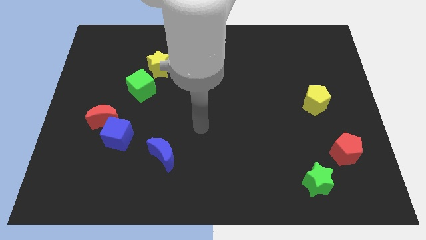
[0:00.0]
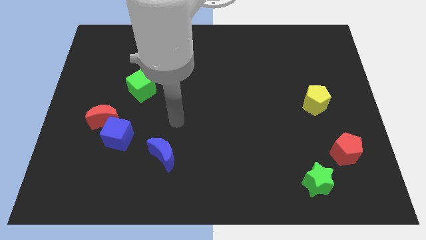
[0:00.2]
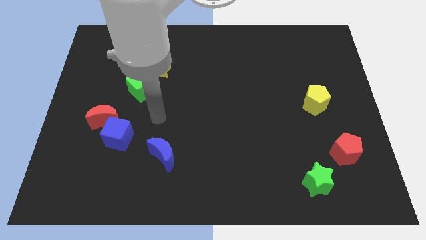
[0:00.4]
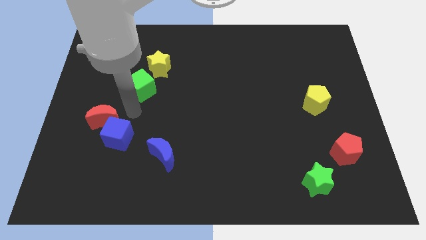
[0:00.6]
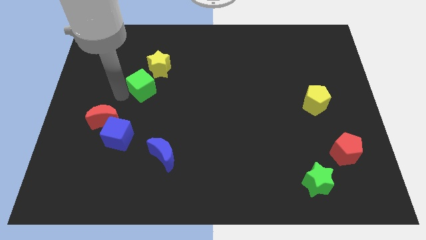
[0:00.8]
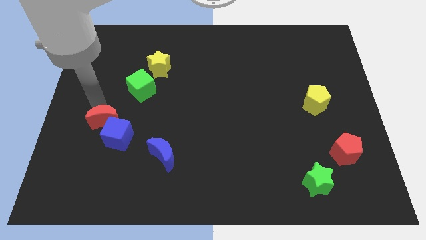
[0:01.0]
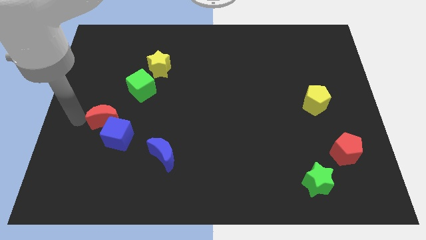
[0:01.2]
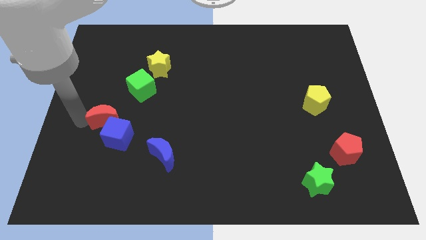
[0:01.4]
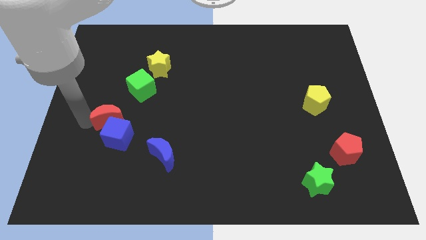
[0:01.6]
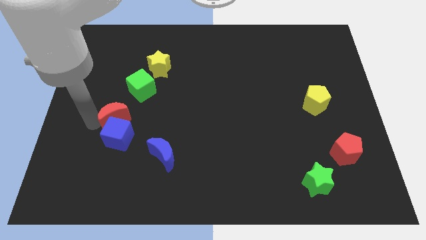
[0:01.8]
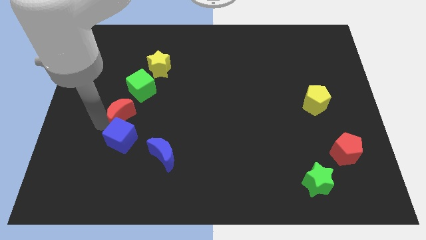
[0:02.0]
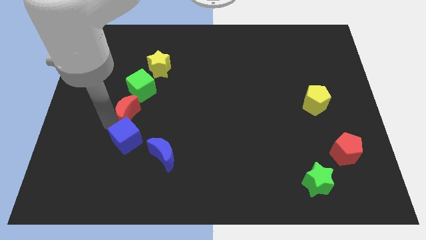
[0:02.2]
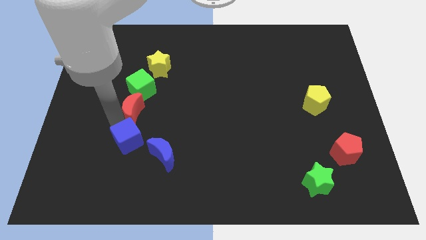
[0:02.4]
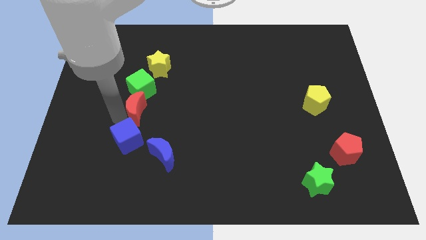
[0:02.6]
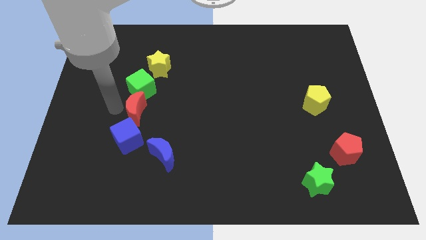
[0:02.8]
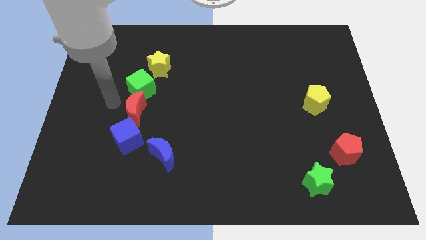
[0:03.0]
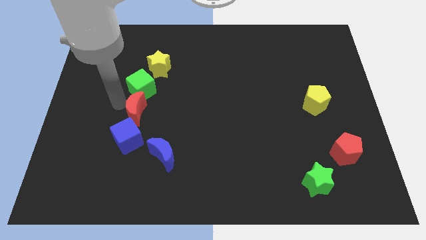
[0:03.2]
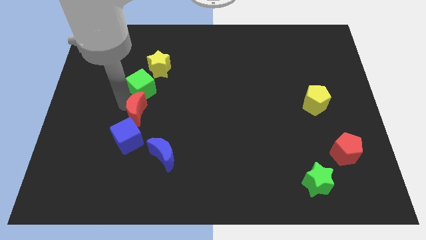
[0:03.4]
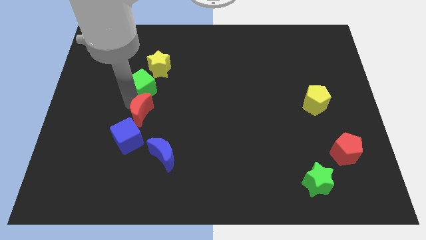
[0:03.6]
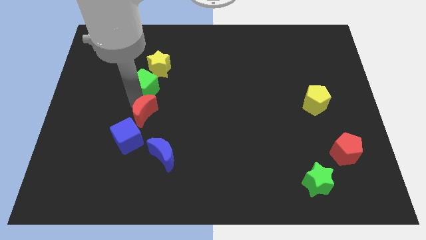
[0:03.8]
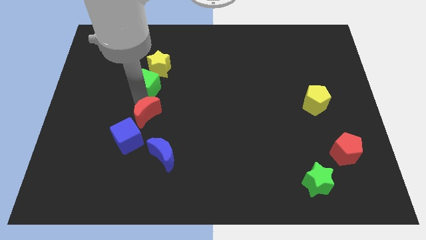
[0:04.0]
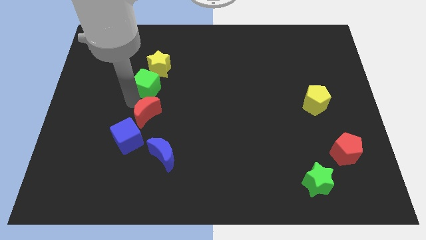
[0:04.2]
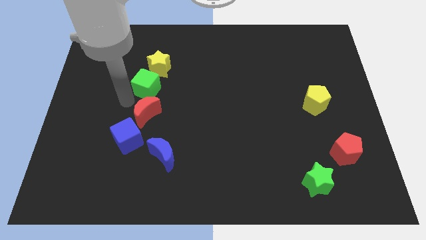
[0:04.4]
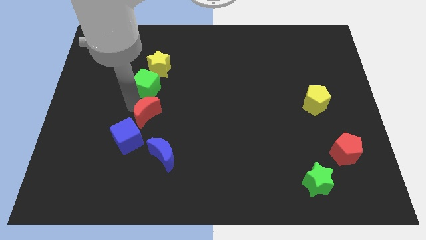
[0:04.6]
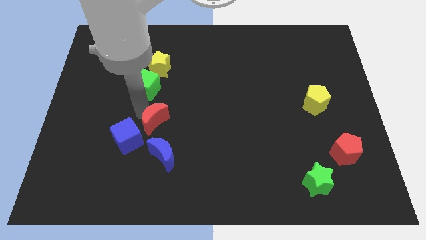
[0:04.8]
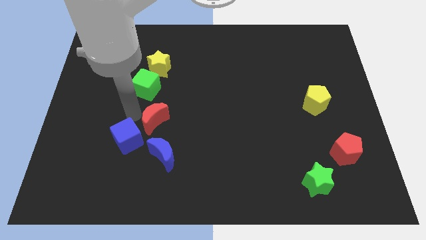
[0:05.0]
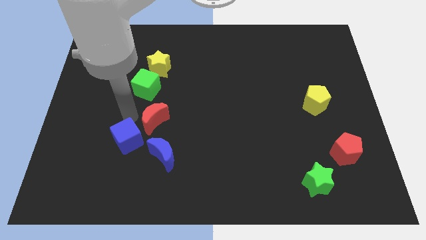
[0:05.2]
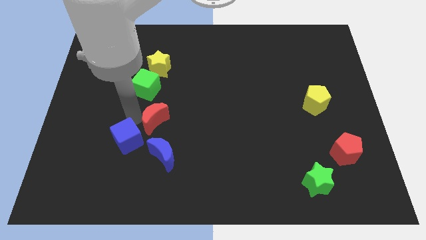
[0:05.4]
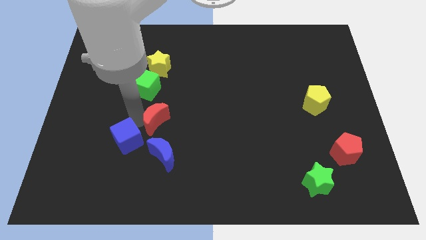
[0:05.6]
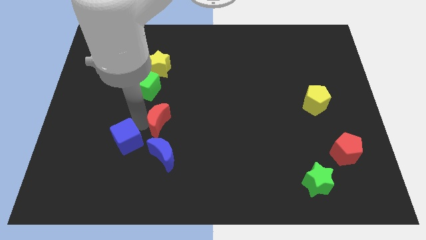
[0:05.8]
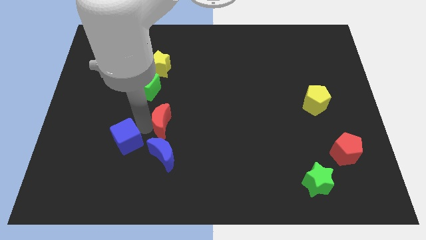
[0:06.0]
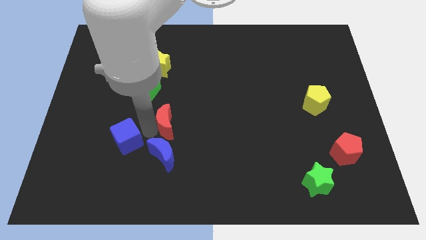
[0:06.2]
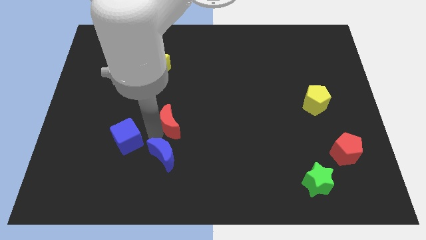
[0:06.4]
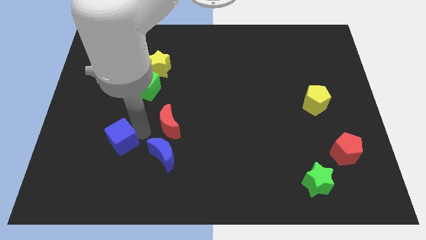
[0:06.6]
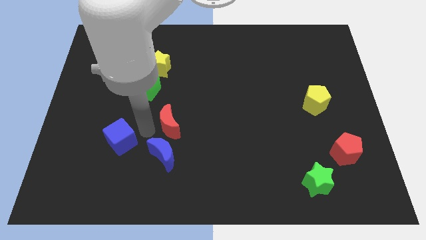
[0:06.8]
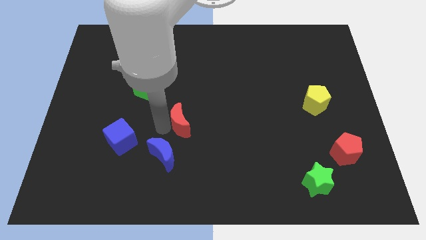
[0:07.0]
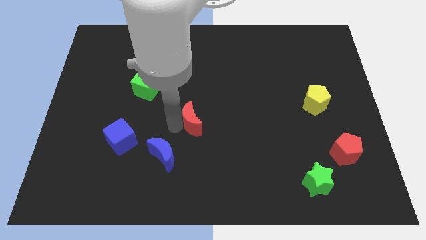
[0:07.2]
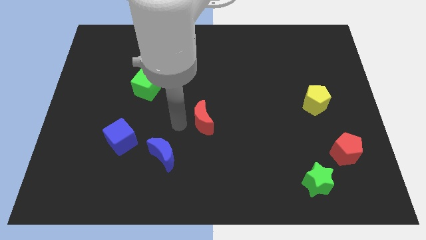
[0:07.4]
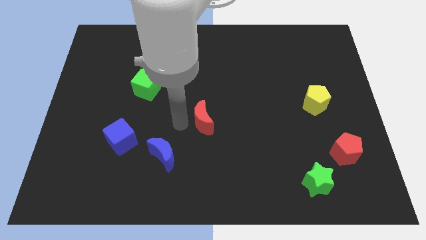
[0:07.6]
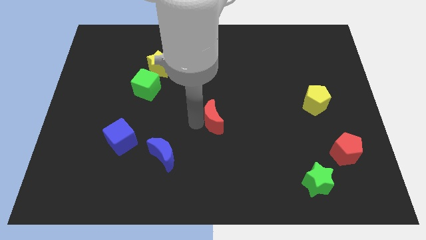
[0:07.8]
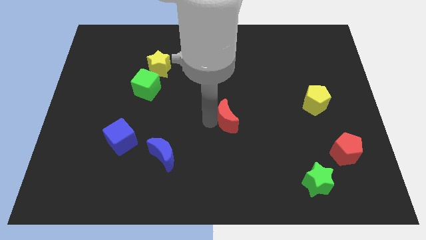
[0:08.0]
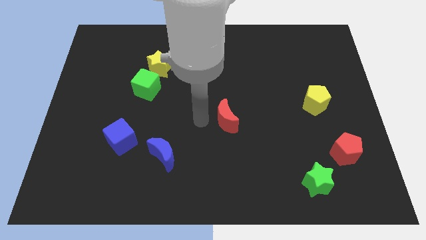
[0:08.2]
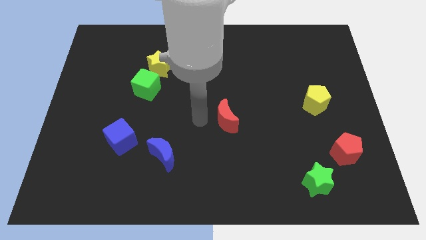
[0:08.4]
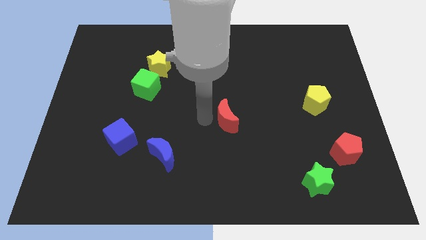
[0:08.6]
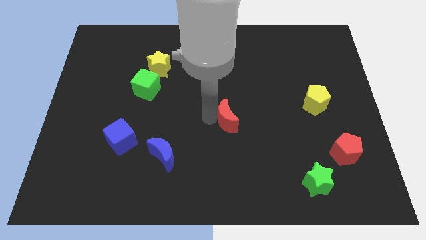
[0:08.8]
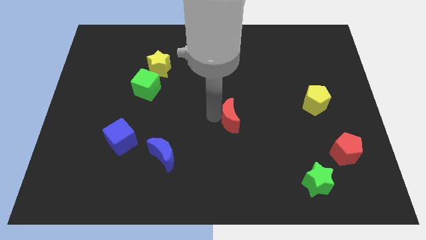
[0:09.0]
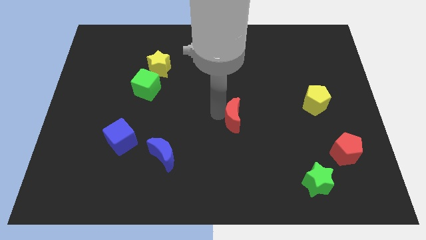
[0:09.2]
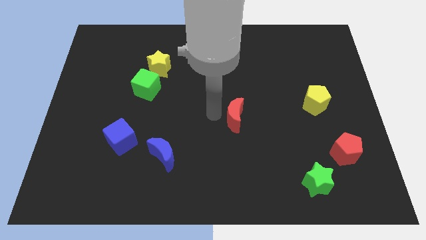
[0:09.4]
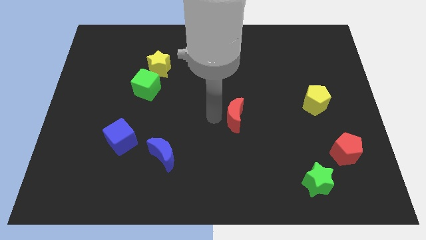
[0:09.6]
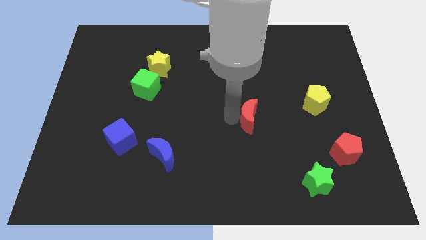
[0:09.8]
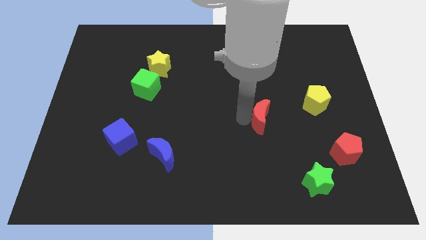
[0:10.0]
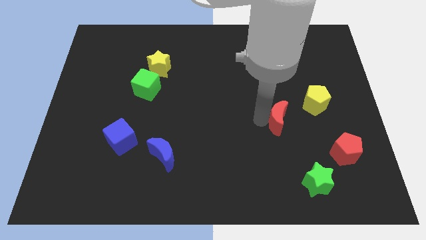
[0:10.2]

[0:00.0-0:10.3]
slide the red moon to the bottom left of the yellow pentagon

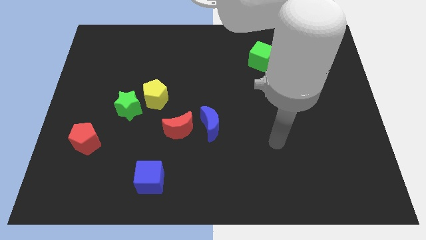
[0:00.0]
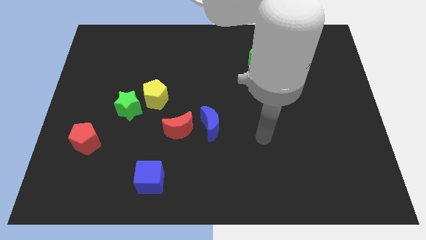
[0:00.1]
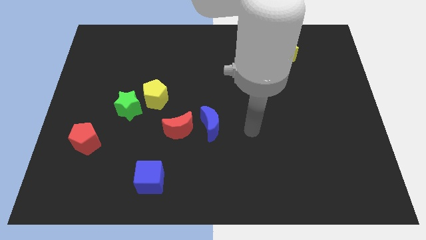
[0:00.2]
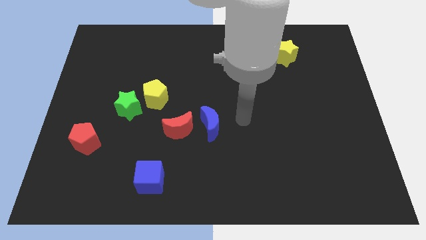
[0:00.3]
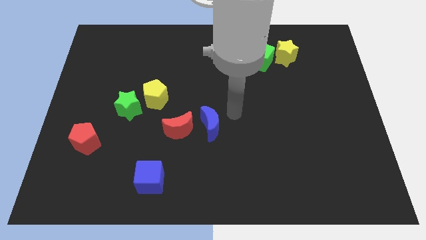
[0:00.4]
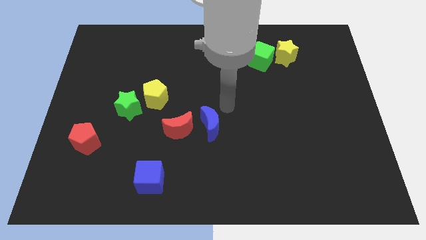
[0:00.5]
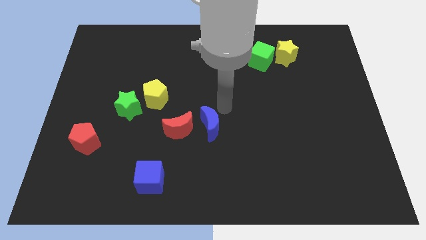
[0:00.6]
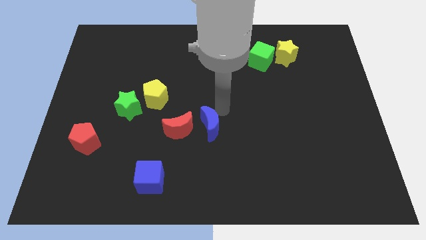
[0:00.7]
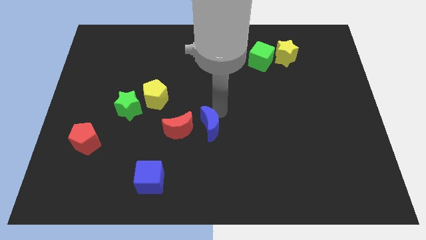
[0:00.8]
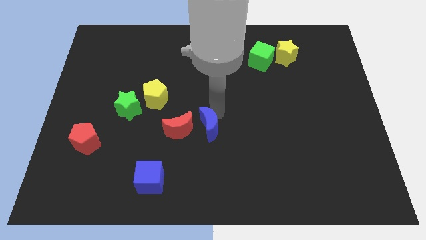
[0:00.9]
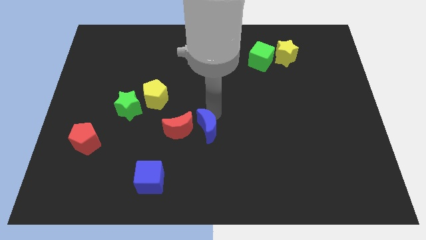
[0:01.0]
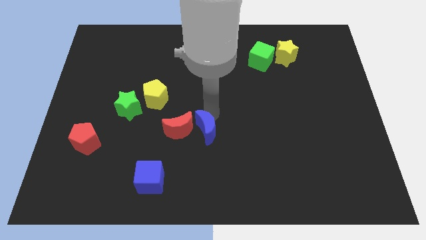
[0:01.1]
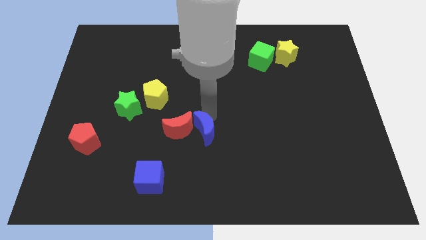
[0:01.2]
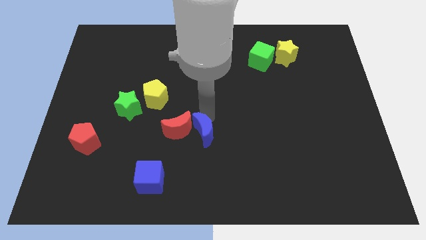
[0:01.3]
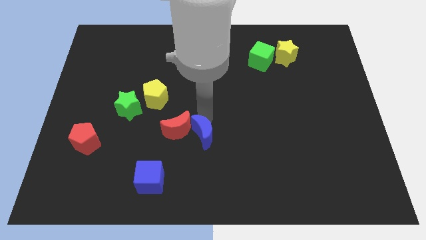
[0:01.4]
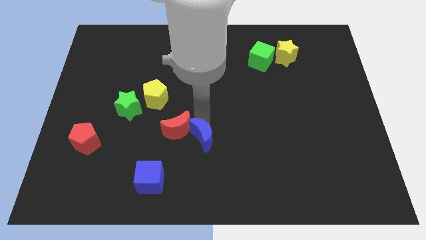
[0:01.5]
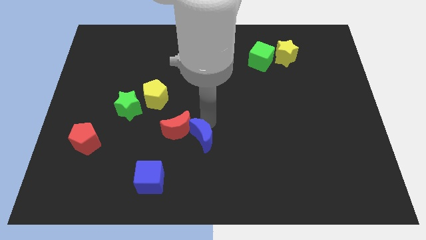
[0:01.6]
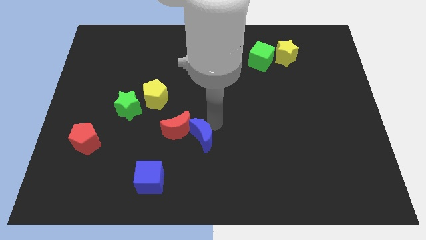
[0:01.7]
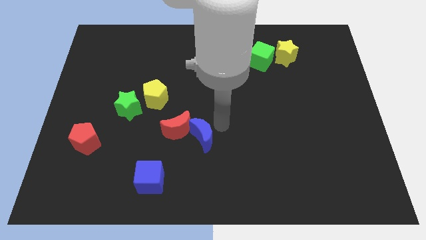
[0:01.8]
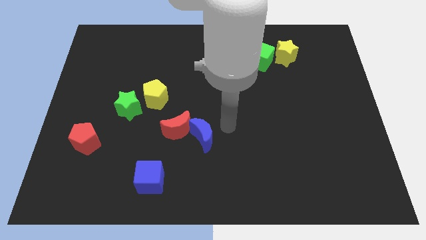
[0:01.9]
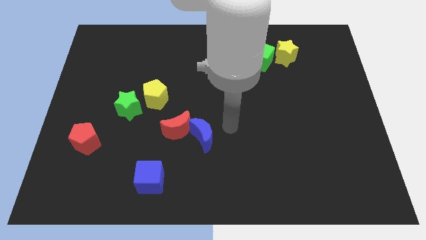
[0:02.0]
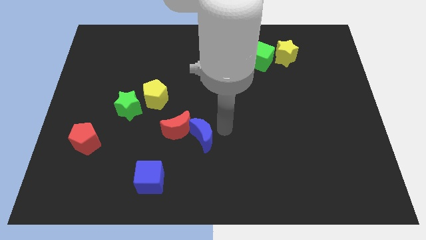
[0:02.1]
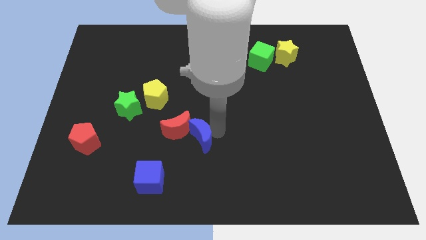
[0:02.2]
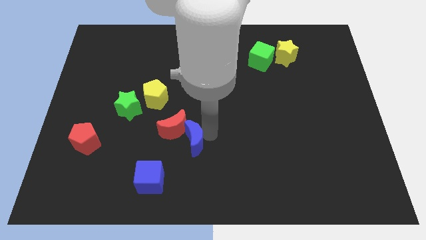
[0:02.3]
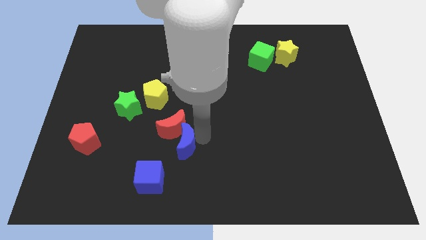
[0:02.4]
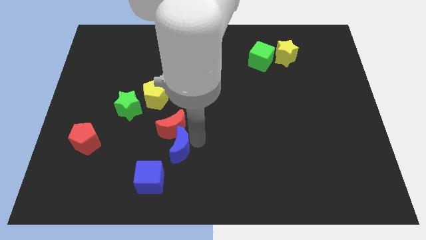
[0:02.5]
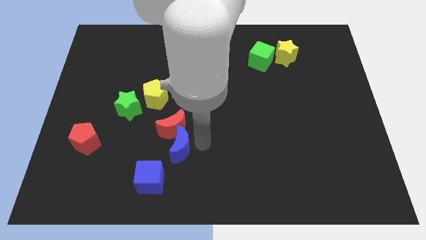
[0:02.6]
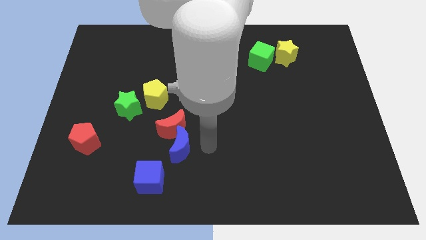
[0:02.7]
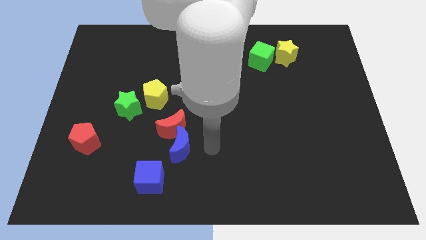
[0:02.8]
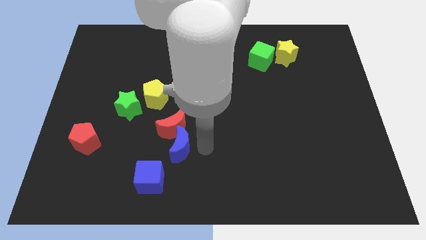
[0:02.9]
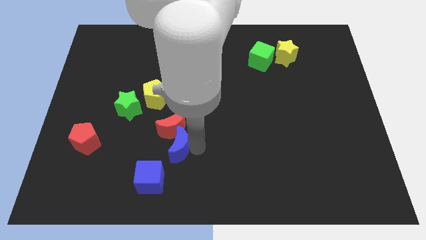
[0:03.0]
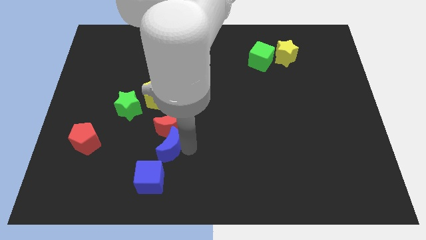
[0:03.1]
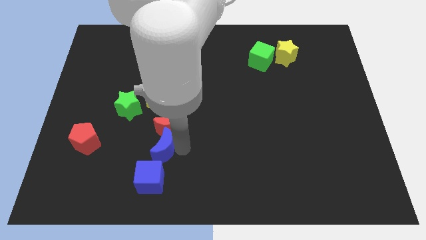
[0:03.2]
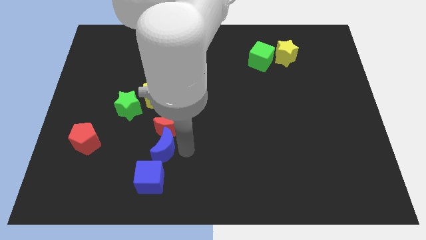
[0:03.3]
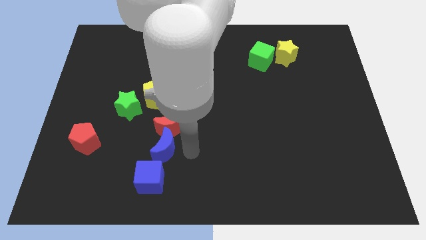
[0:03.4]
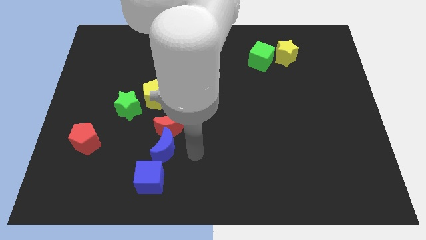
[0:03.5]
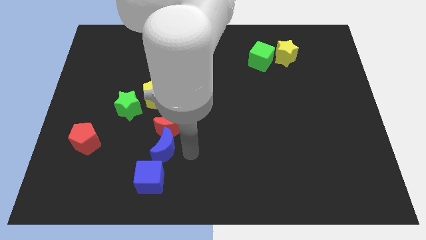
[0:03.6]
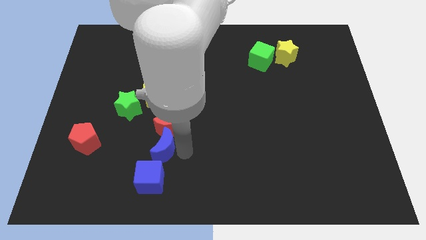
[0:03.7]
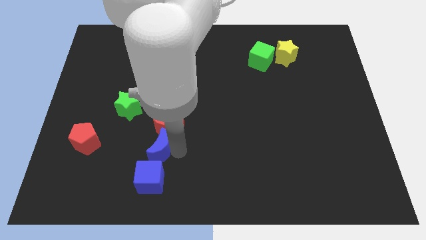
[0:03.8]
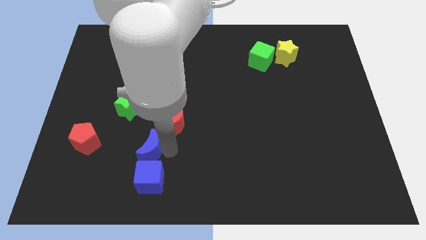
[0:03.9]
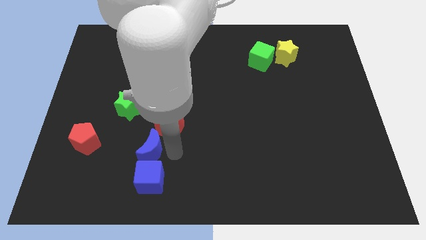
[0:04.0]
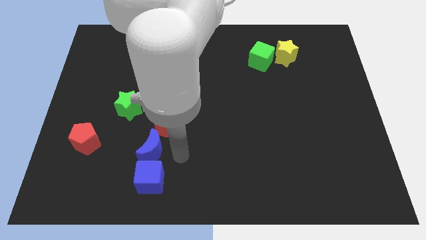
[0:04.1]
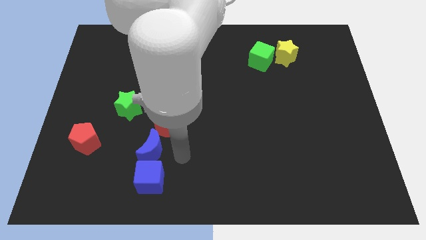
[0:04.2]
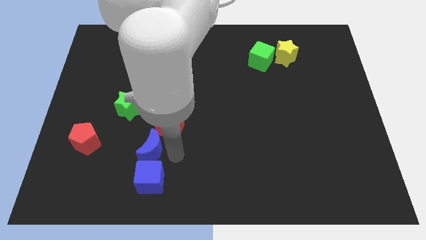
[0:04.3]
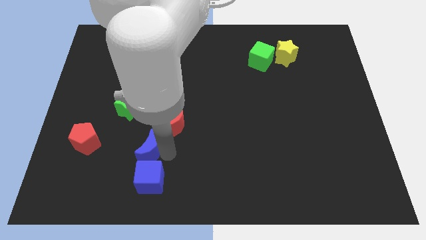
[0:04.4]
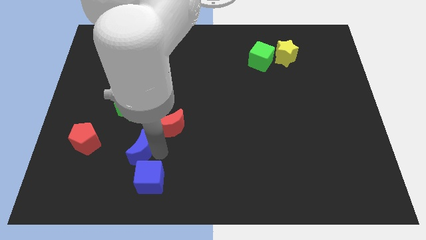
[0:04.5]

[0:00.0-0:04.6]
slide the blue moon to the bottom side of the green star
